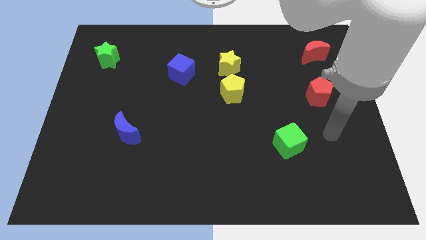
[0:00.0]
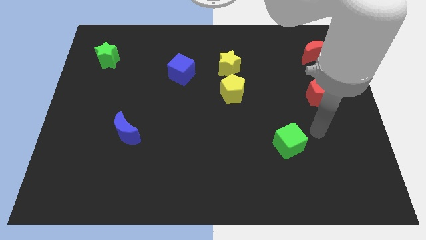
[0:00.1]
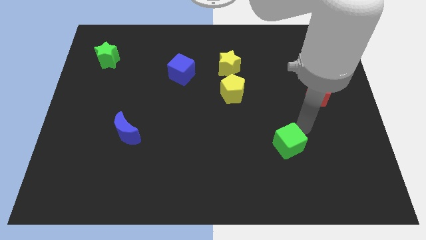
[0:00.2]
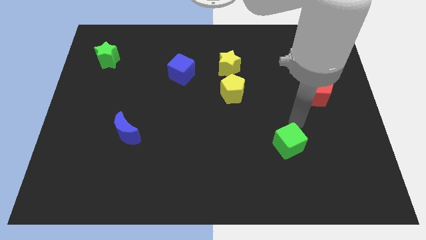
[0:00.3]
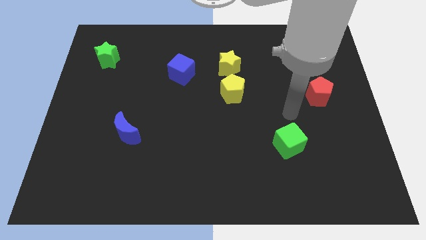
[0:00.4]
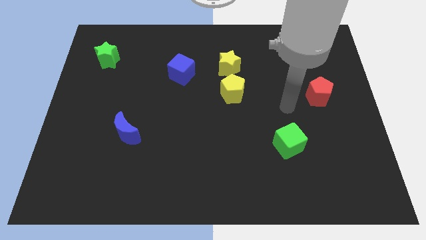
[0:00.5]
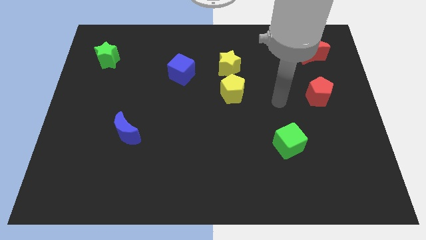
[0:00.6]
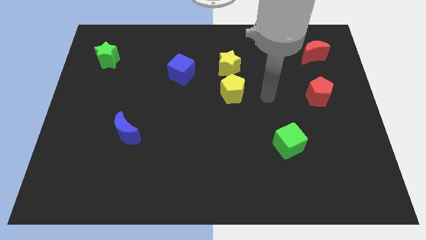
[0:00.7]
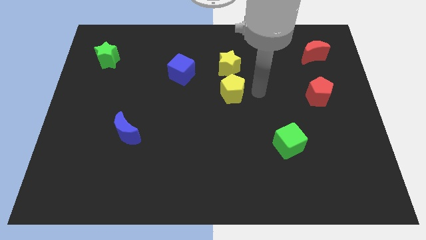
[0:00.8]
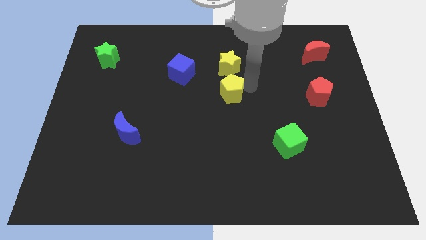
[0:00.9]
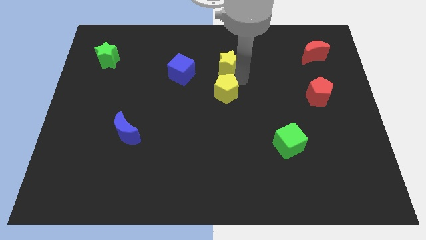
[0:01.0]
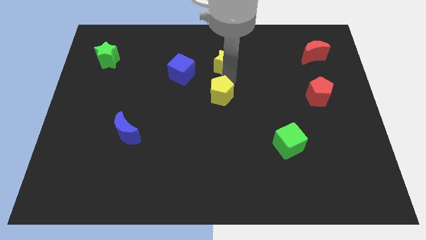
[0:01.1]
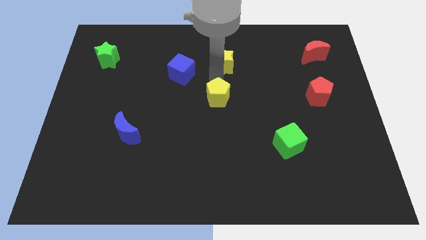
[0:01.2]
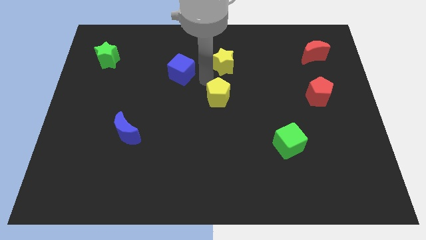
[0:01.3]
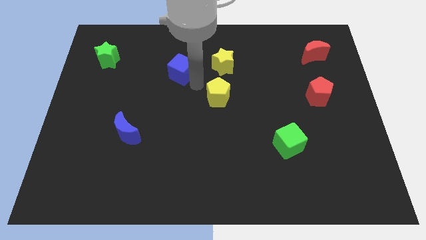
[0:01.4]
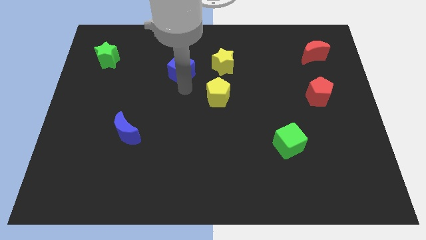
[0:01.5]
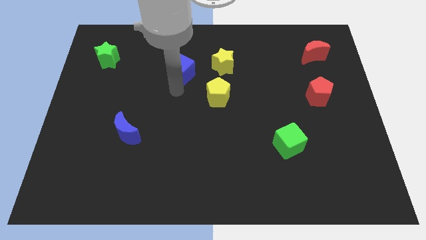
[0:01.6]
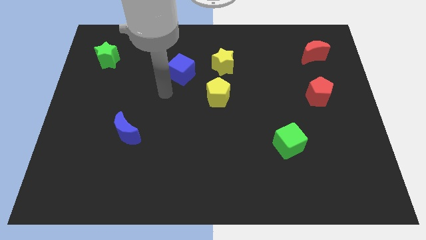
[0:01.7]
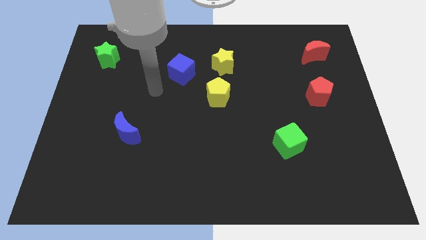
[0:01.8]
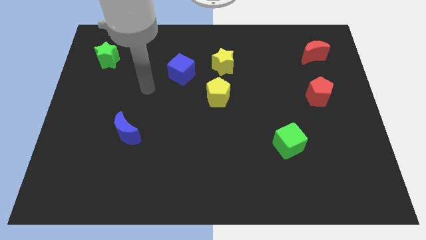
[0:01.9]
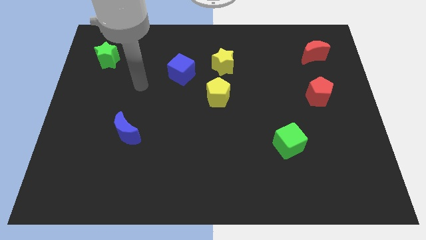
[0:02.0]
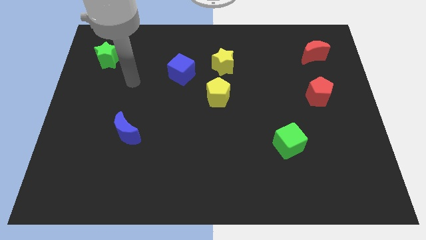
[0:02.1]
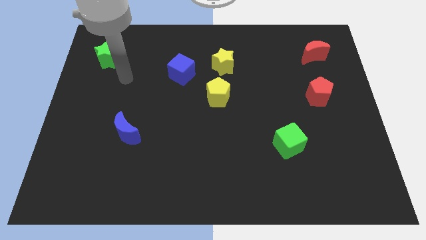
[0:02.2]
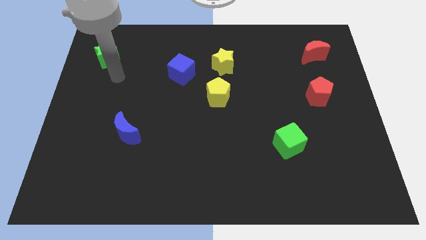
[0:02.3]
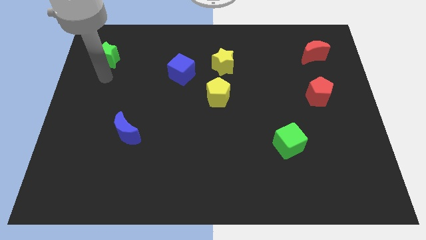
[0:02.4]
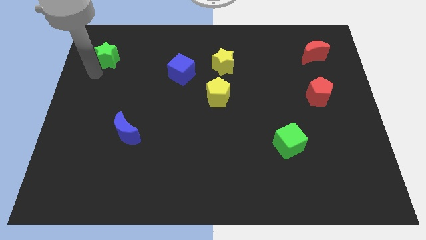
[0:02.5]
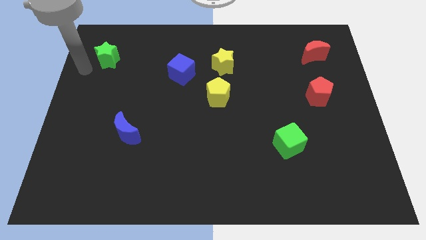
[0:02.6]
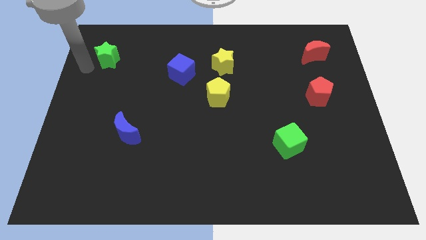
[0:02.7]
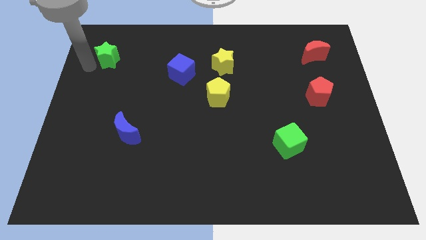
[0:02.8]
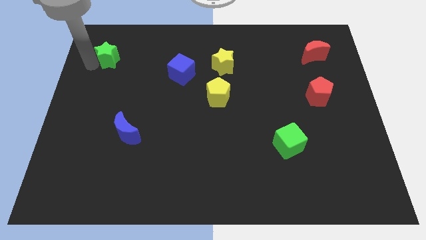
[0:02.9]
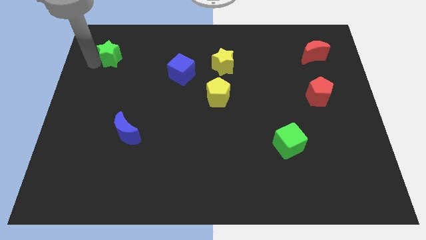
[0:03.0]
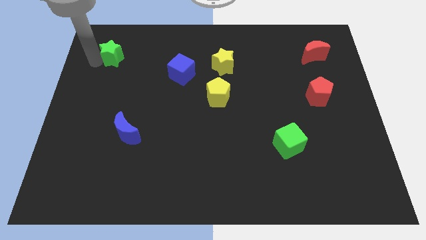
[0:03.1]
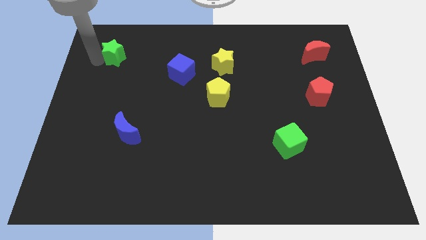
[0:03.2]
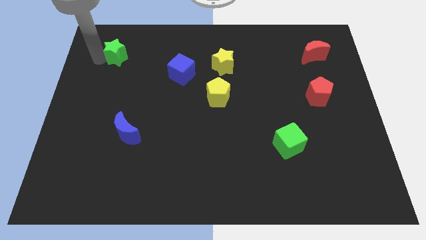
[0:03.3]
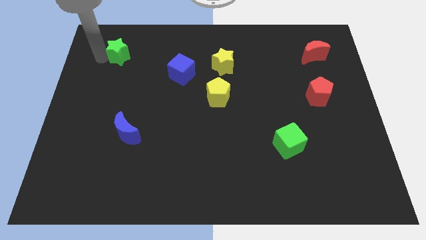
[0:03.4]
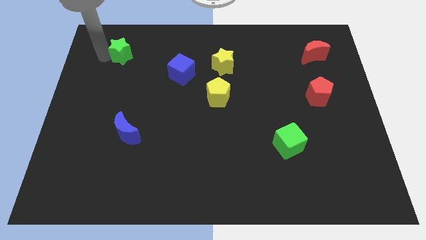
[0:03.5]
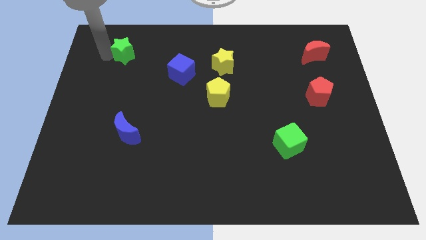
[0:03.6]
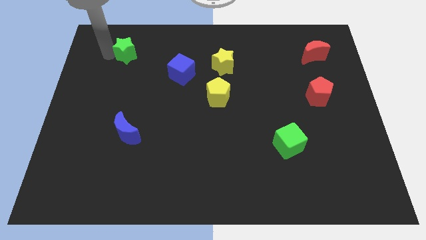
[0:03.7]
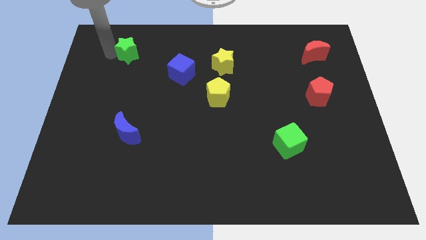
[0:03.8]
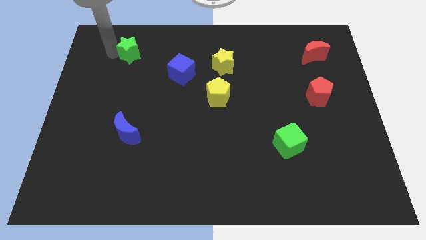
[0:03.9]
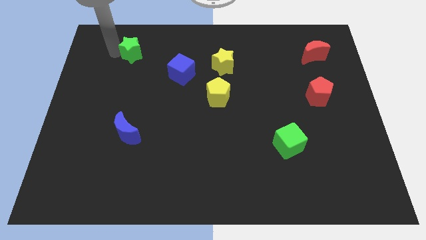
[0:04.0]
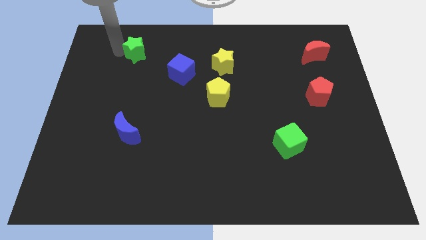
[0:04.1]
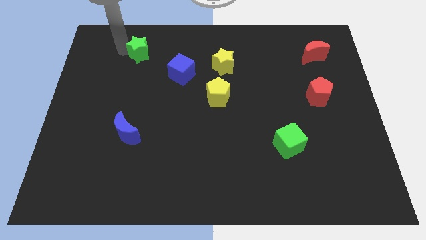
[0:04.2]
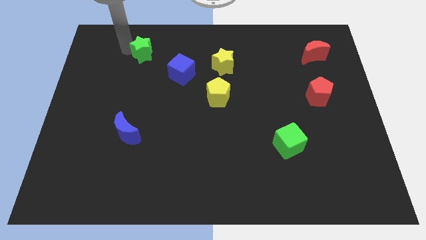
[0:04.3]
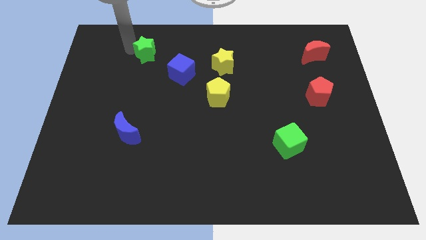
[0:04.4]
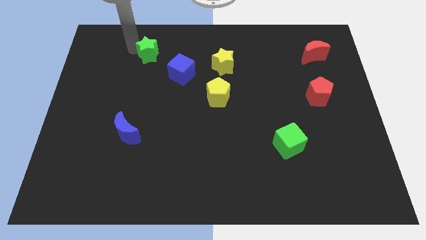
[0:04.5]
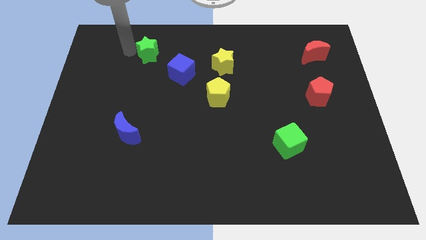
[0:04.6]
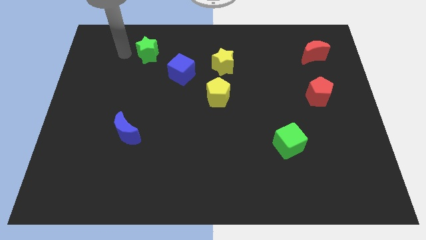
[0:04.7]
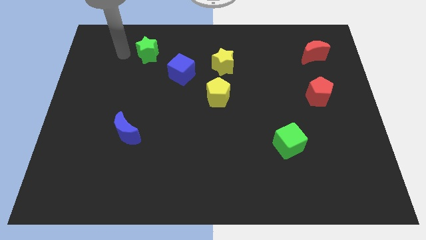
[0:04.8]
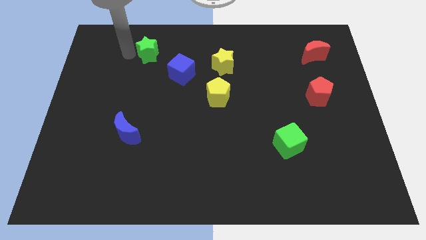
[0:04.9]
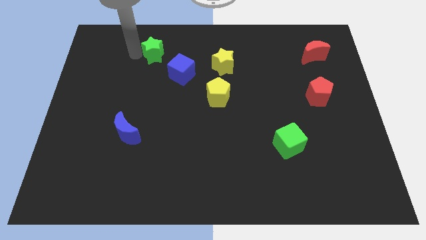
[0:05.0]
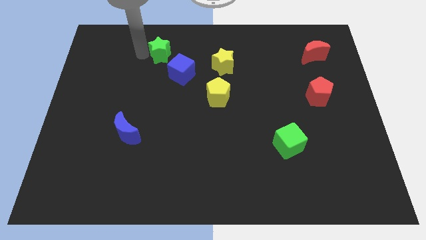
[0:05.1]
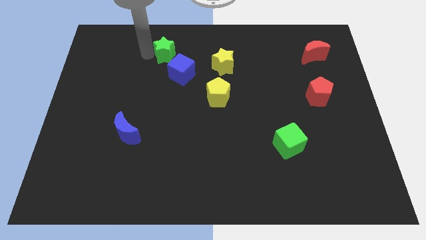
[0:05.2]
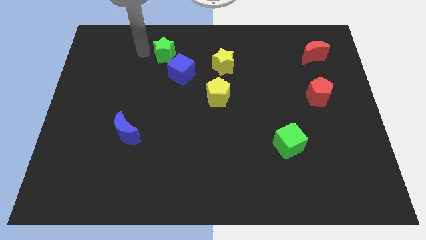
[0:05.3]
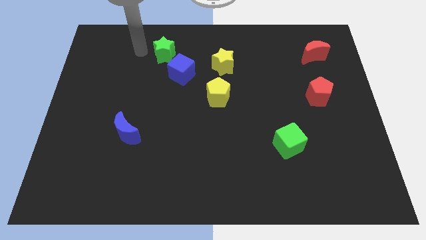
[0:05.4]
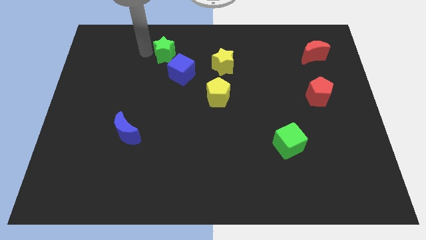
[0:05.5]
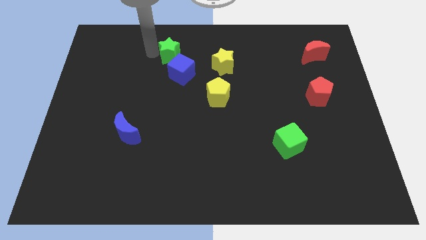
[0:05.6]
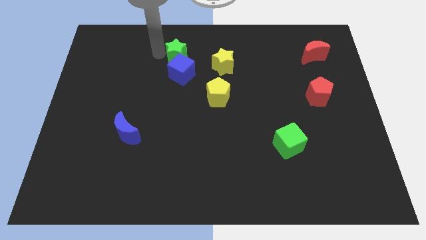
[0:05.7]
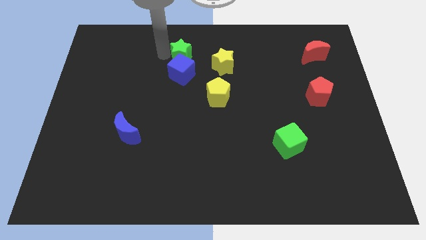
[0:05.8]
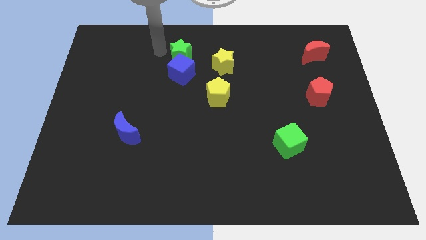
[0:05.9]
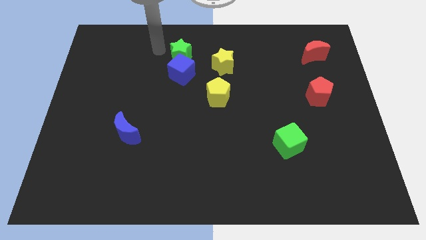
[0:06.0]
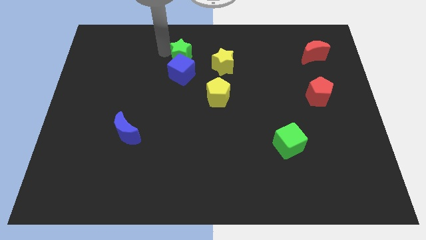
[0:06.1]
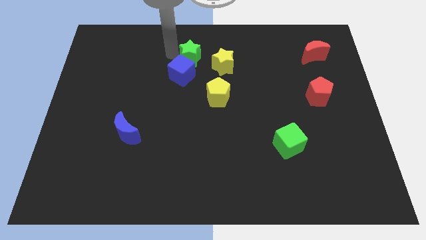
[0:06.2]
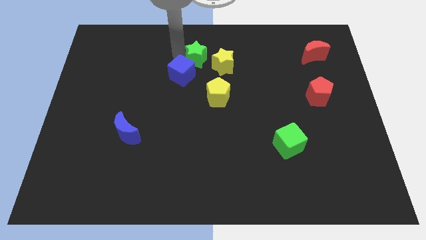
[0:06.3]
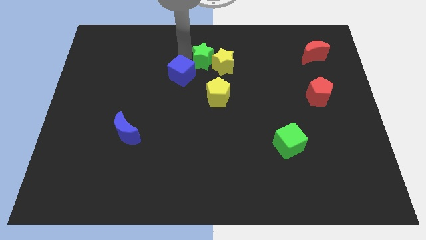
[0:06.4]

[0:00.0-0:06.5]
move the green star to the yellow star

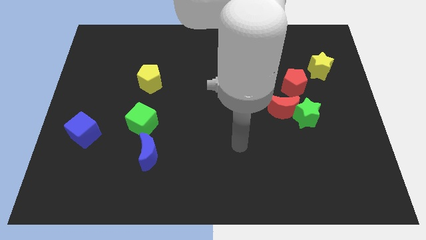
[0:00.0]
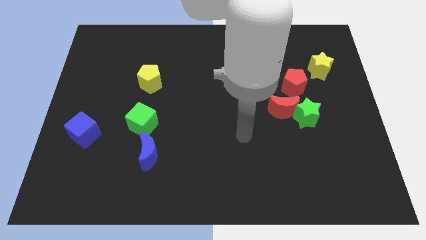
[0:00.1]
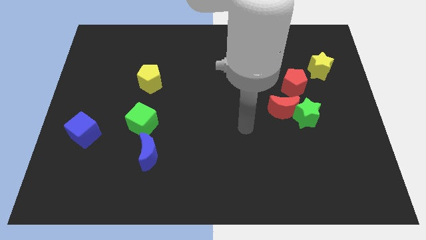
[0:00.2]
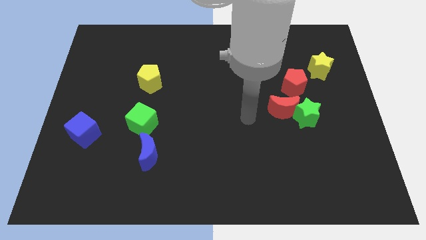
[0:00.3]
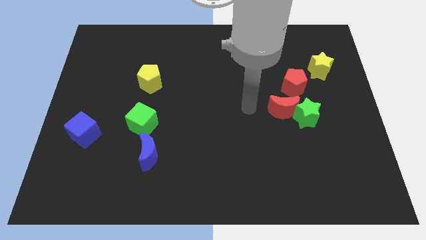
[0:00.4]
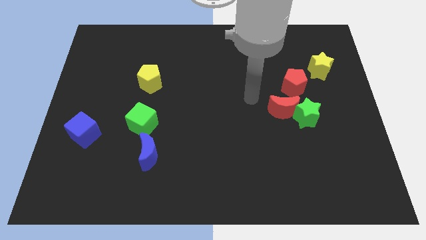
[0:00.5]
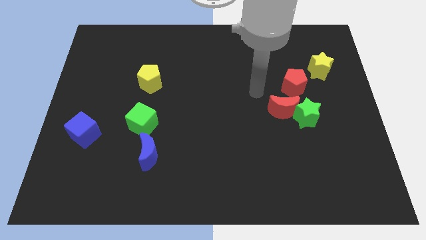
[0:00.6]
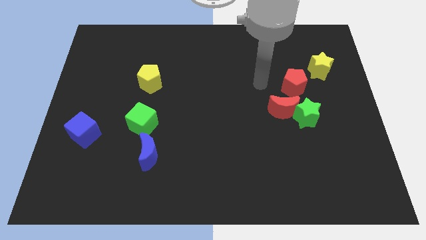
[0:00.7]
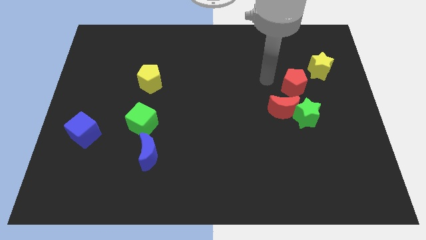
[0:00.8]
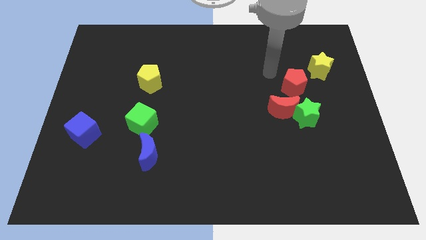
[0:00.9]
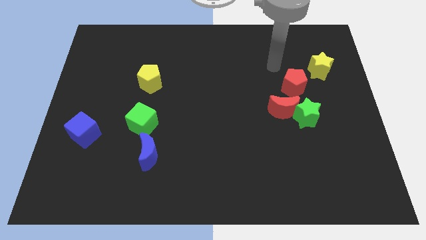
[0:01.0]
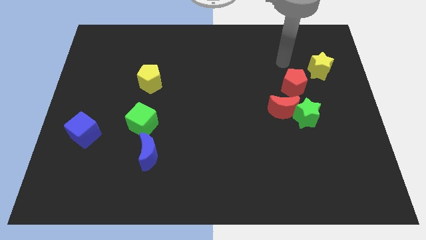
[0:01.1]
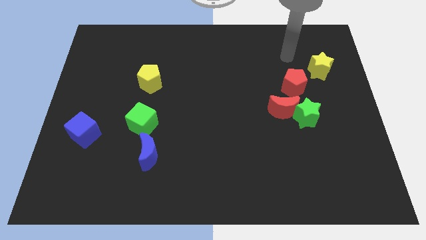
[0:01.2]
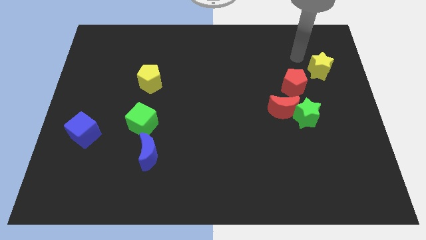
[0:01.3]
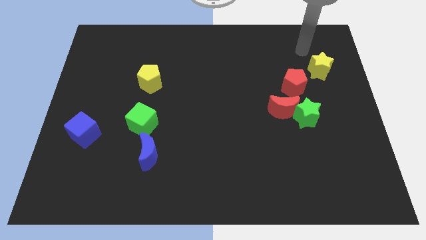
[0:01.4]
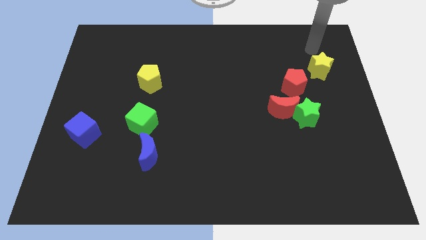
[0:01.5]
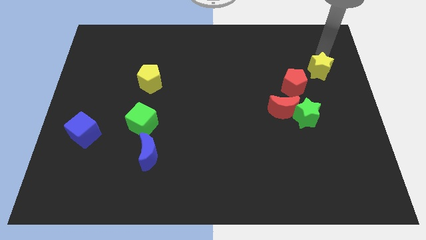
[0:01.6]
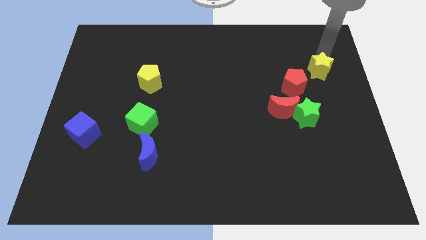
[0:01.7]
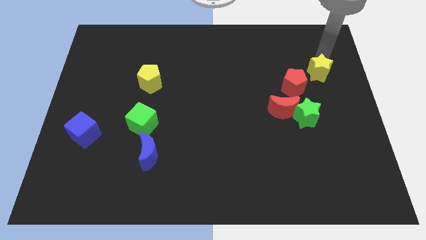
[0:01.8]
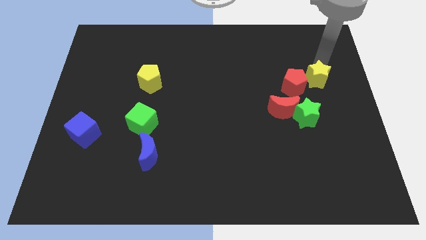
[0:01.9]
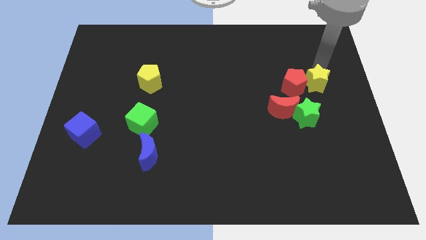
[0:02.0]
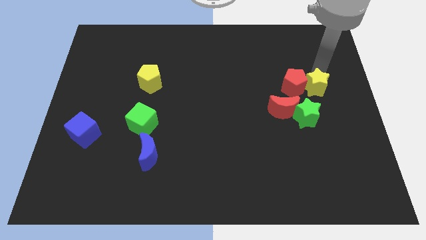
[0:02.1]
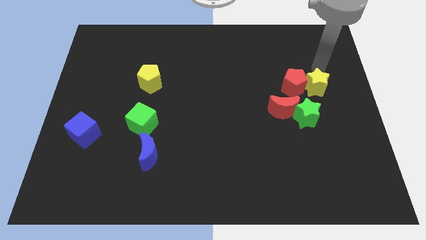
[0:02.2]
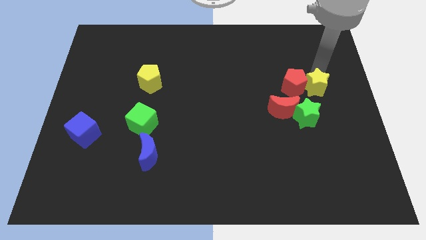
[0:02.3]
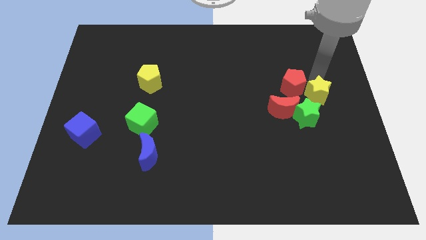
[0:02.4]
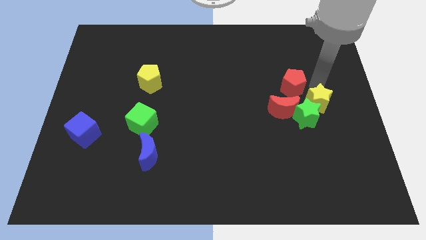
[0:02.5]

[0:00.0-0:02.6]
slide the yellow star next to the green star
